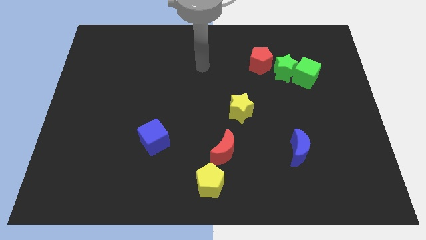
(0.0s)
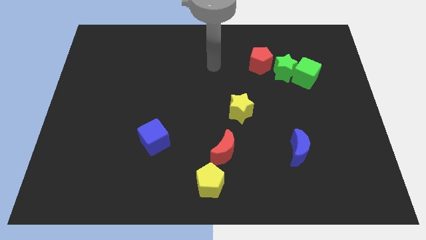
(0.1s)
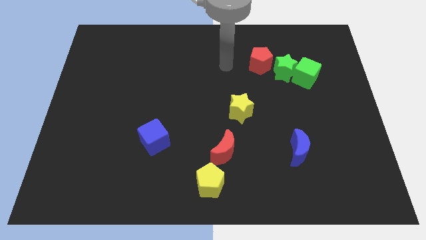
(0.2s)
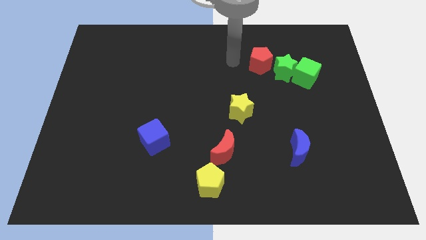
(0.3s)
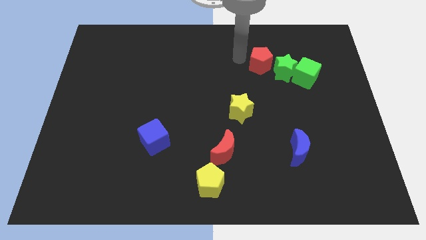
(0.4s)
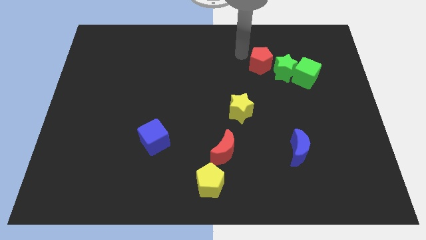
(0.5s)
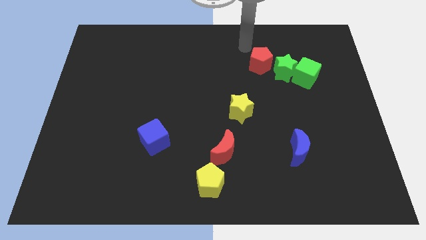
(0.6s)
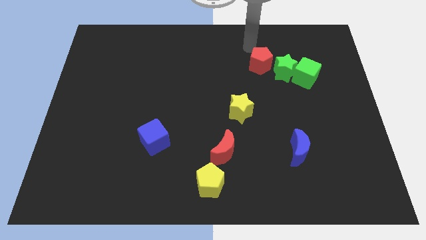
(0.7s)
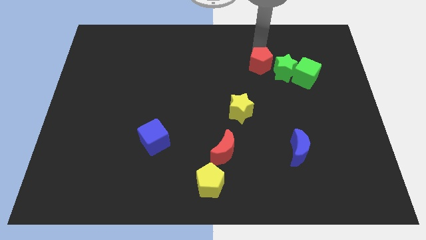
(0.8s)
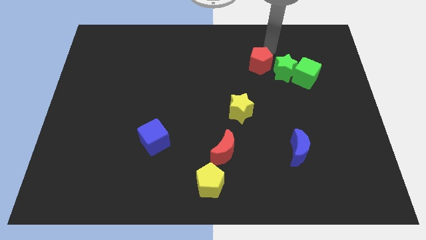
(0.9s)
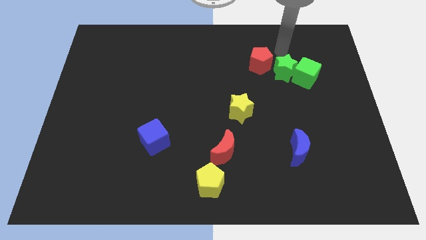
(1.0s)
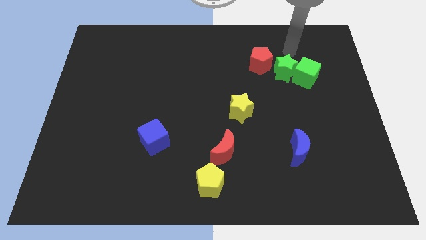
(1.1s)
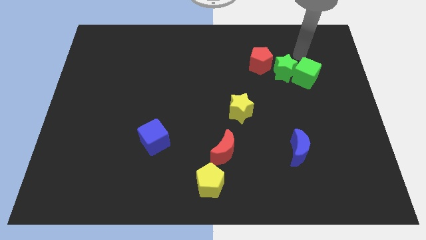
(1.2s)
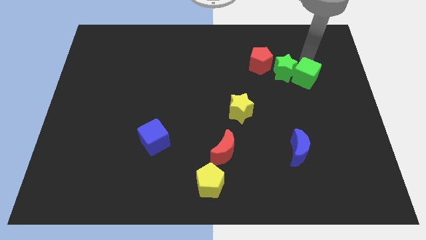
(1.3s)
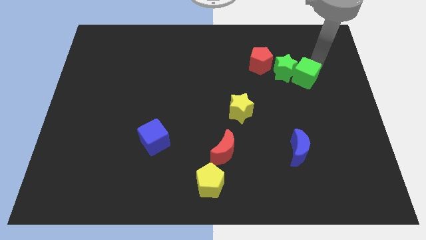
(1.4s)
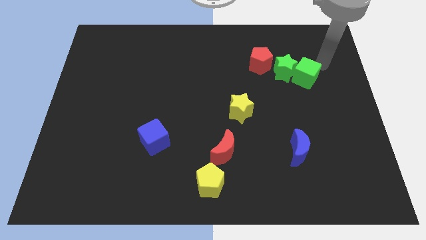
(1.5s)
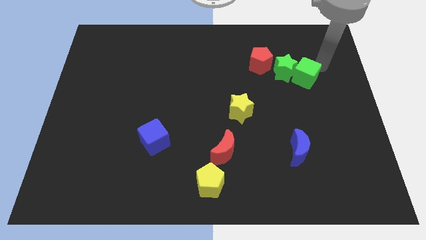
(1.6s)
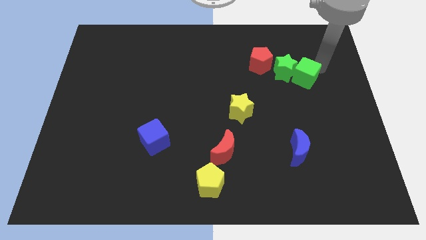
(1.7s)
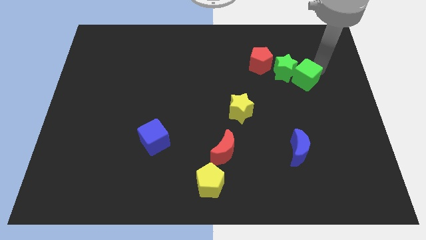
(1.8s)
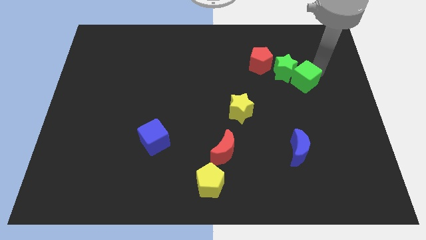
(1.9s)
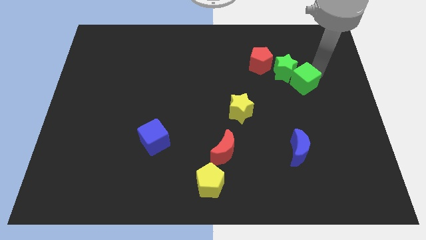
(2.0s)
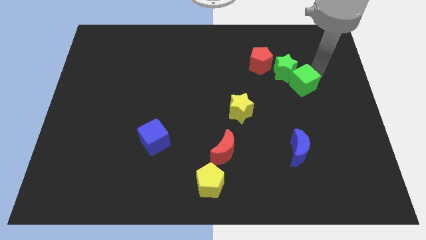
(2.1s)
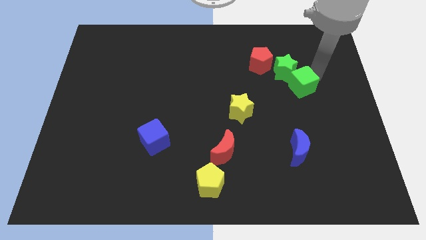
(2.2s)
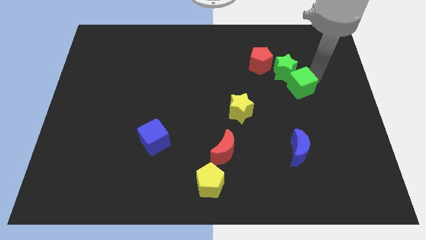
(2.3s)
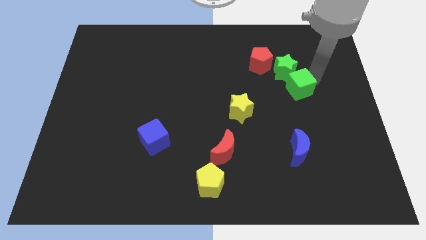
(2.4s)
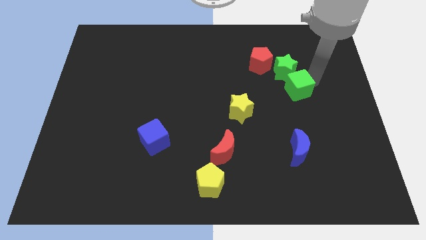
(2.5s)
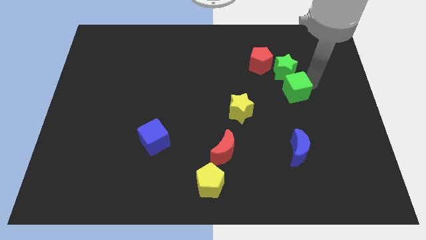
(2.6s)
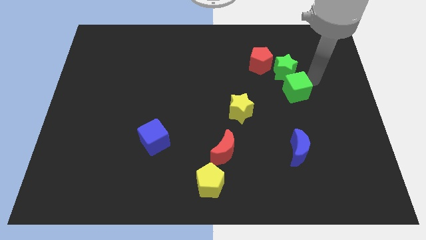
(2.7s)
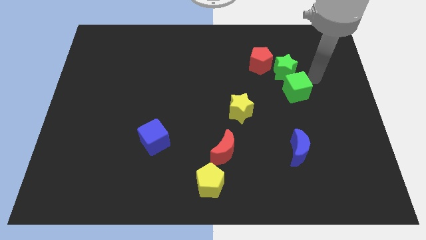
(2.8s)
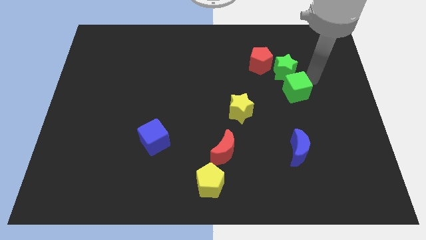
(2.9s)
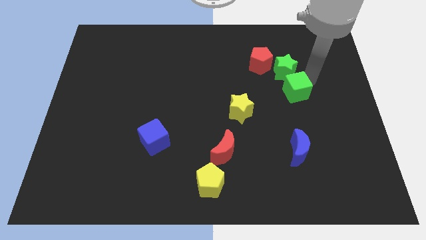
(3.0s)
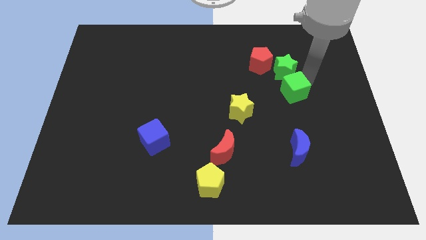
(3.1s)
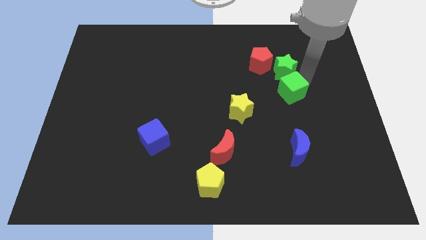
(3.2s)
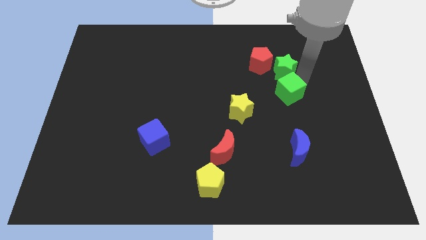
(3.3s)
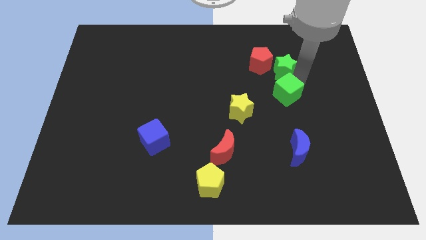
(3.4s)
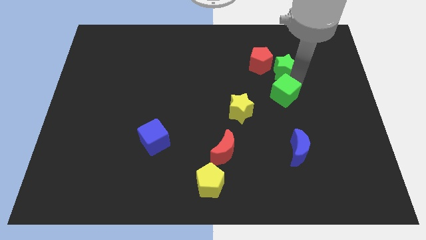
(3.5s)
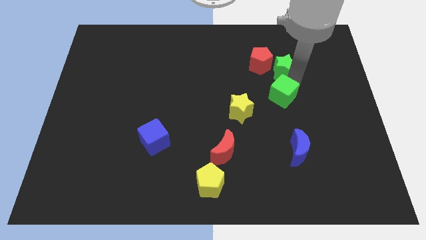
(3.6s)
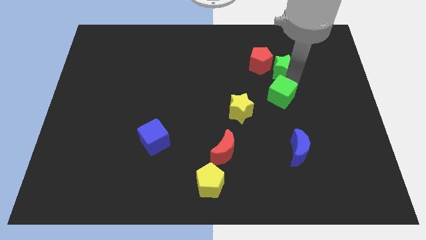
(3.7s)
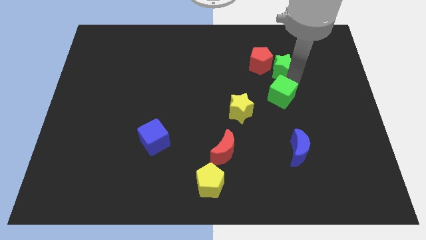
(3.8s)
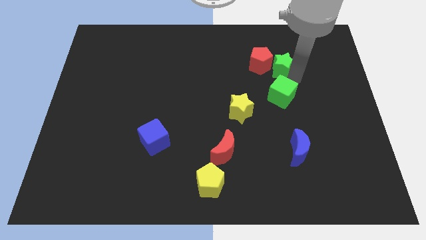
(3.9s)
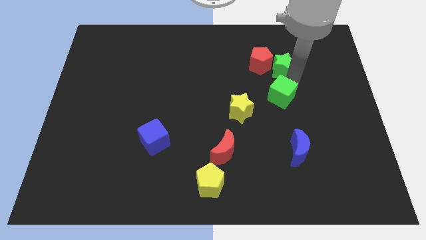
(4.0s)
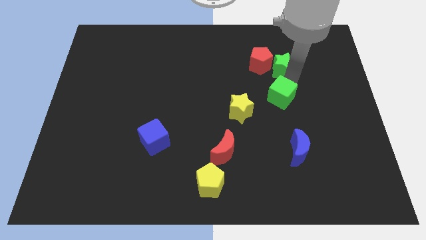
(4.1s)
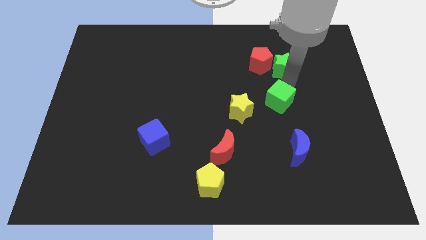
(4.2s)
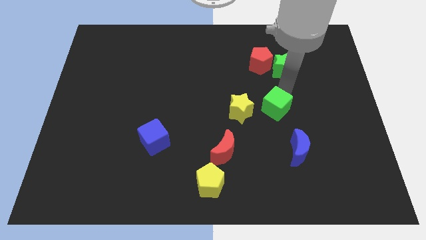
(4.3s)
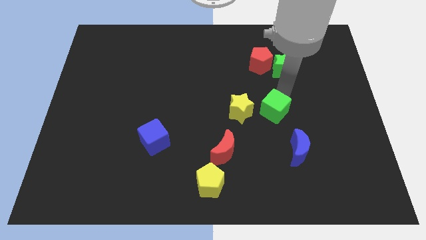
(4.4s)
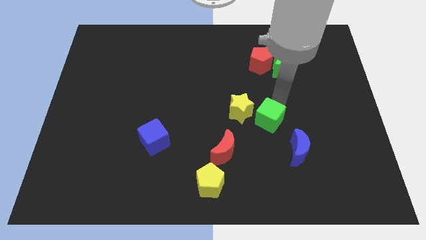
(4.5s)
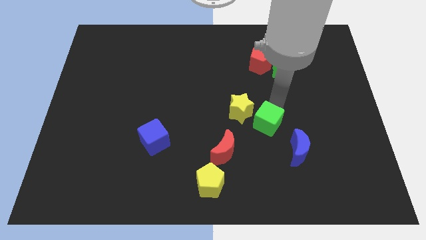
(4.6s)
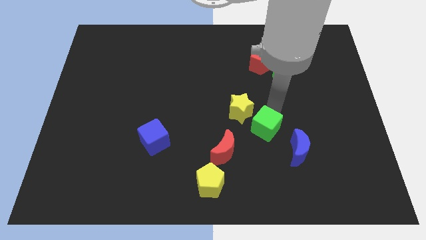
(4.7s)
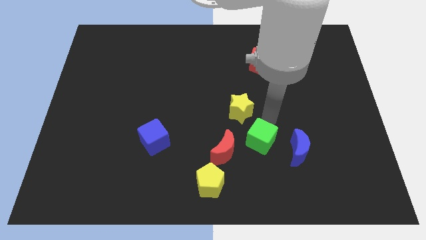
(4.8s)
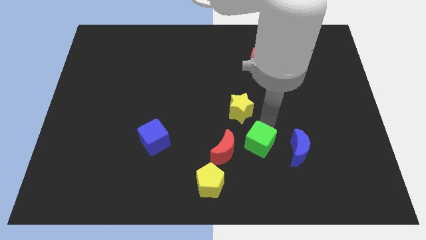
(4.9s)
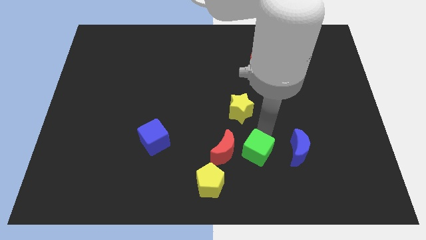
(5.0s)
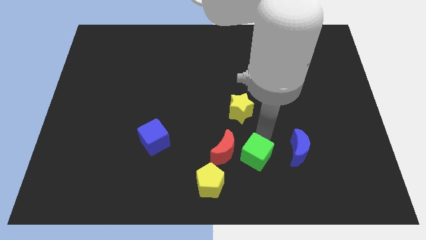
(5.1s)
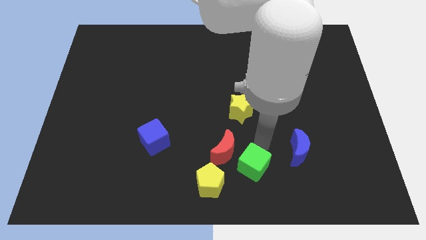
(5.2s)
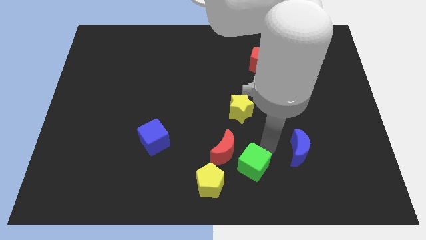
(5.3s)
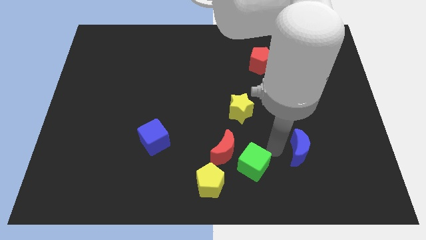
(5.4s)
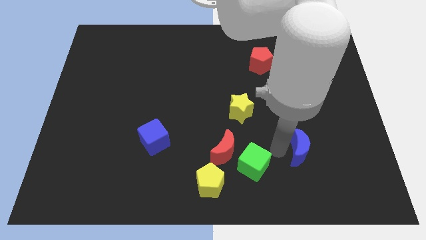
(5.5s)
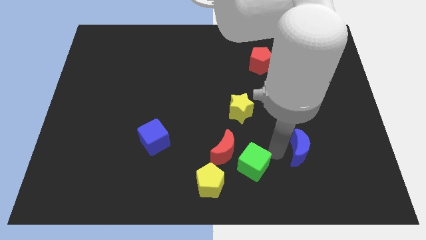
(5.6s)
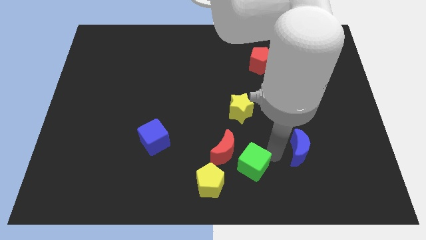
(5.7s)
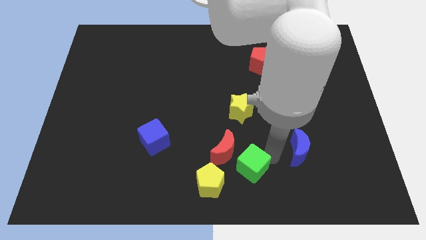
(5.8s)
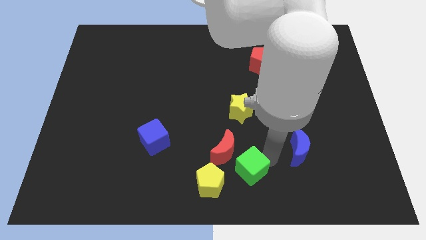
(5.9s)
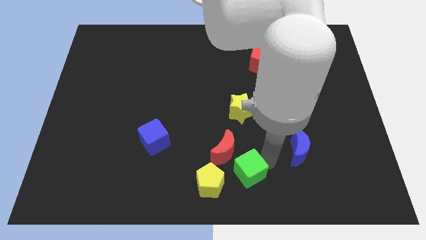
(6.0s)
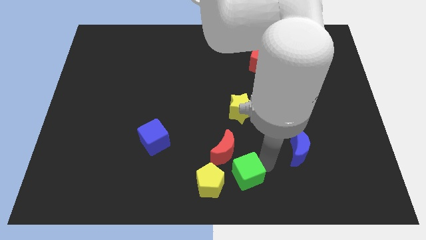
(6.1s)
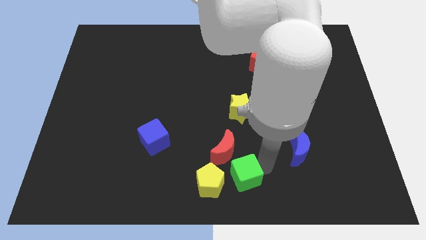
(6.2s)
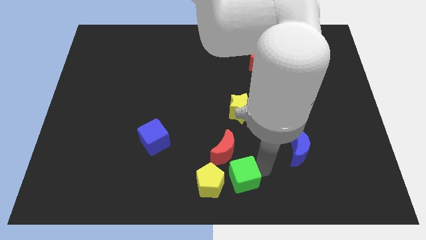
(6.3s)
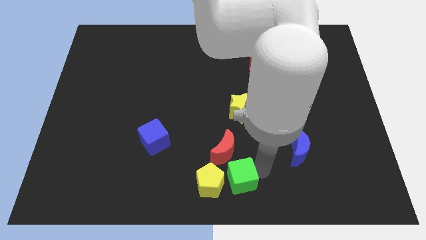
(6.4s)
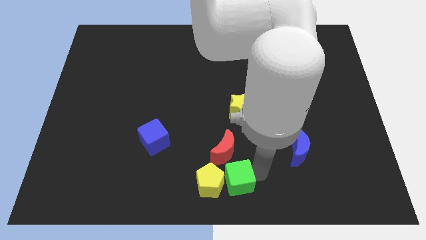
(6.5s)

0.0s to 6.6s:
move the green cube towards the yellow pentagon

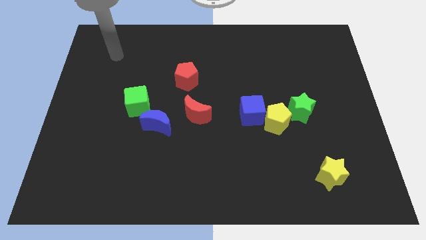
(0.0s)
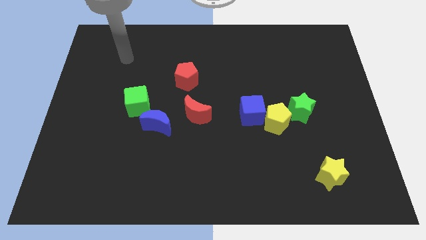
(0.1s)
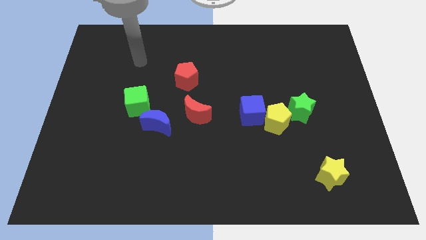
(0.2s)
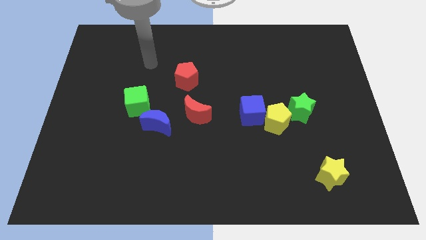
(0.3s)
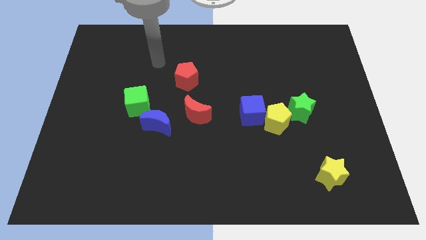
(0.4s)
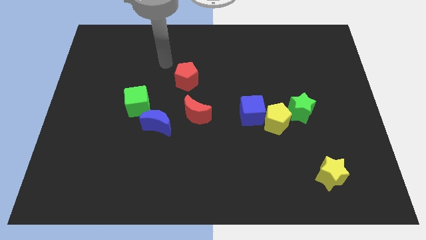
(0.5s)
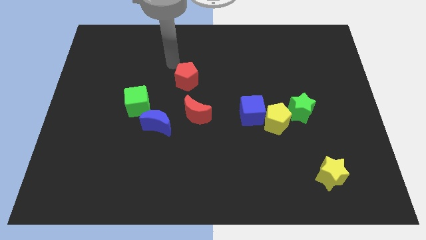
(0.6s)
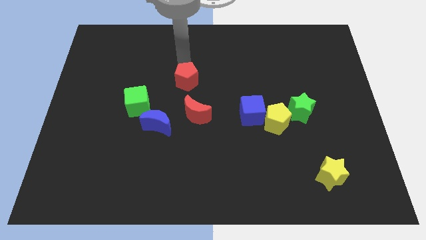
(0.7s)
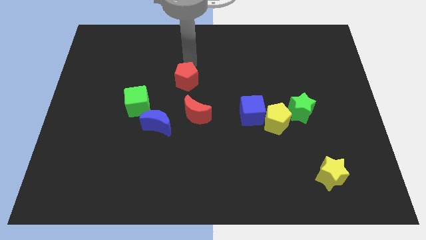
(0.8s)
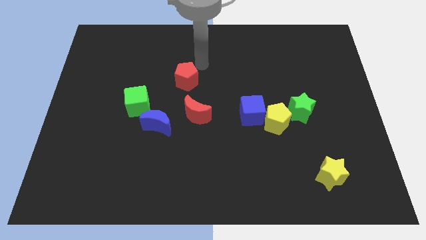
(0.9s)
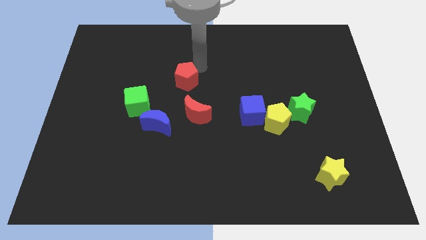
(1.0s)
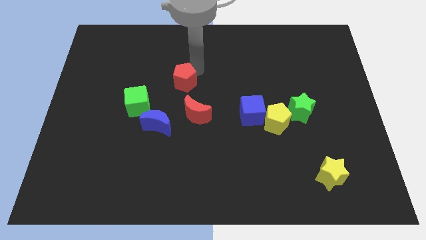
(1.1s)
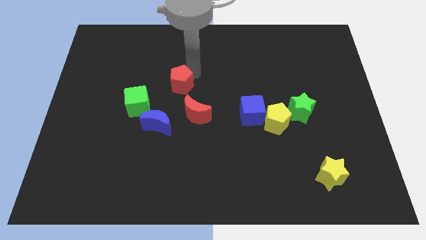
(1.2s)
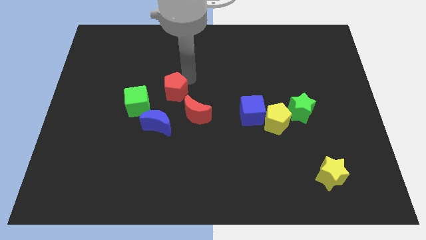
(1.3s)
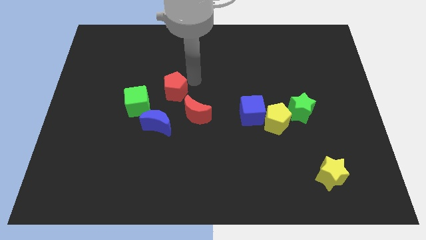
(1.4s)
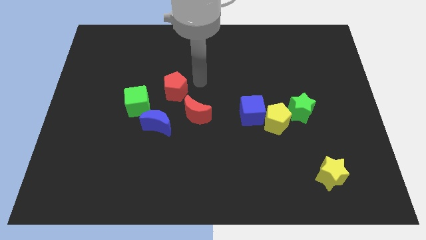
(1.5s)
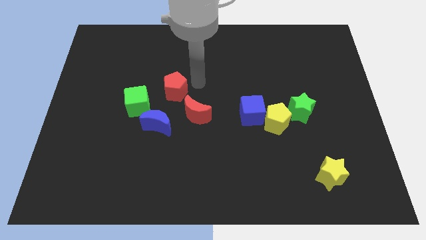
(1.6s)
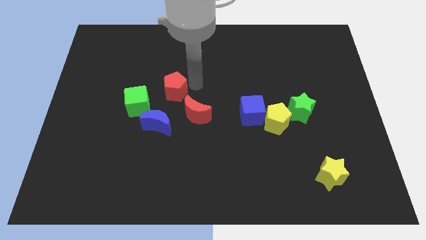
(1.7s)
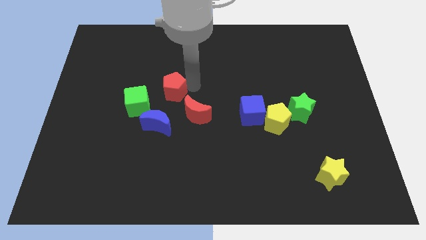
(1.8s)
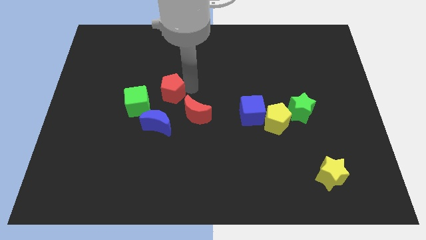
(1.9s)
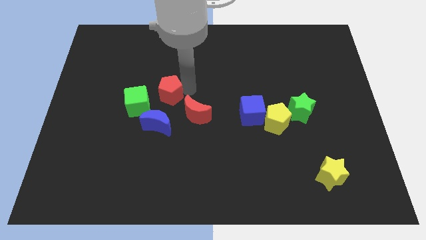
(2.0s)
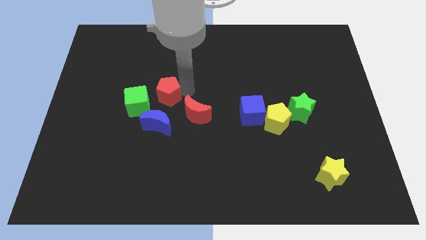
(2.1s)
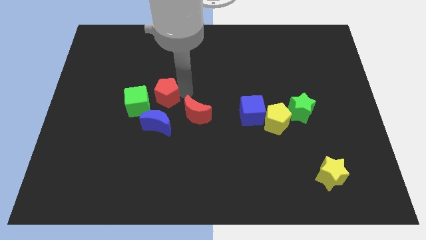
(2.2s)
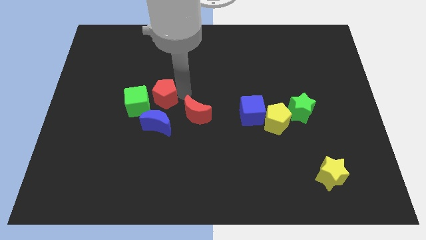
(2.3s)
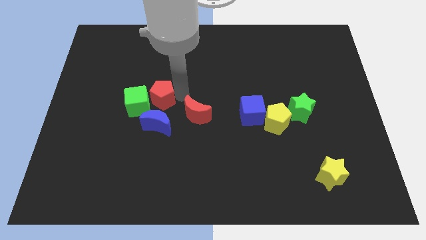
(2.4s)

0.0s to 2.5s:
move the red pentagon to the green cube
